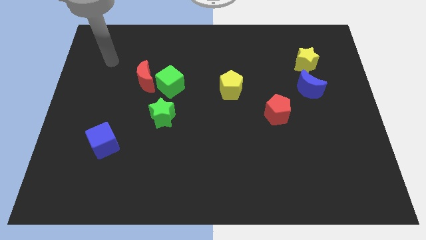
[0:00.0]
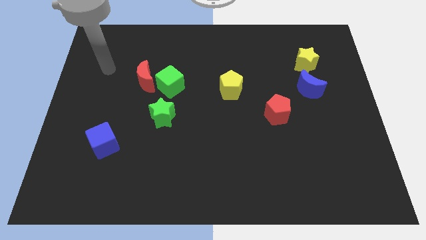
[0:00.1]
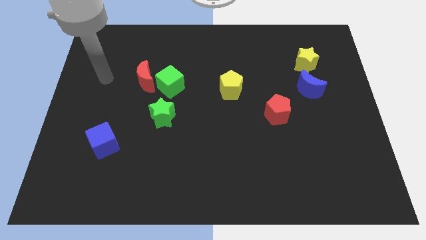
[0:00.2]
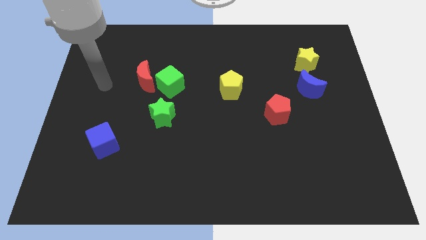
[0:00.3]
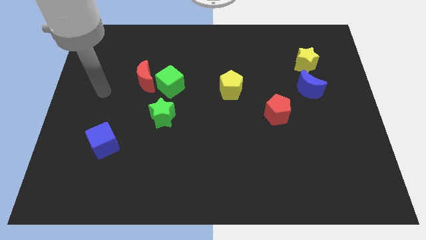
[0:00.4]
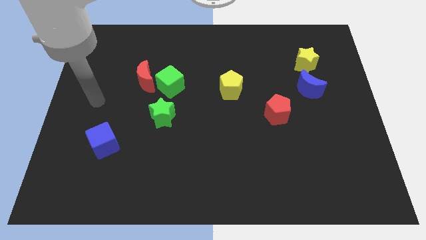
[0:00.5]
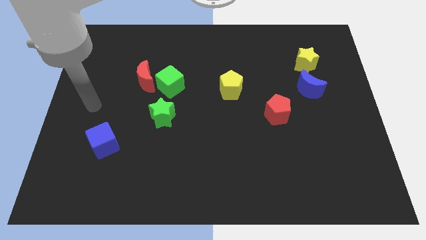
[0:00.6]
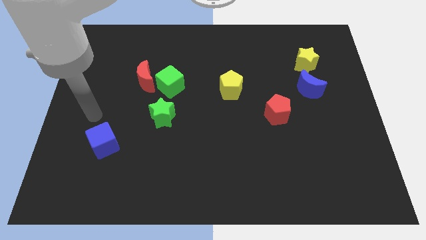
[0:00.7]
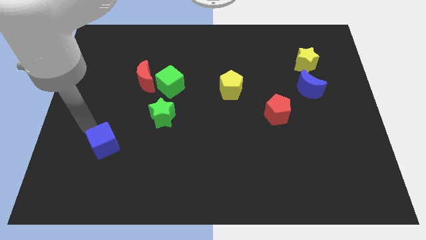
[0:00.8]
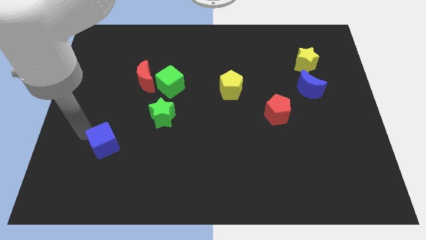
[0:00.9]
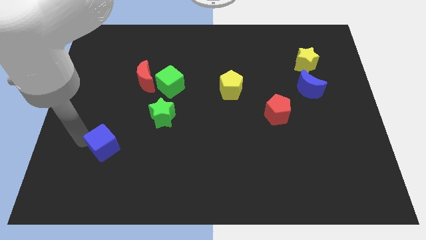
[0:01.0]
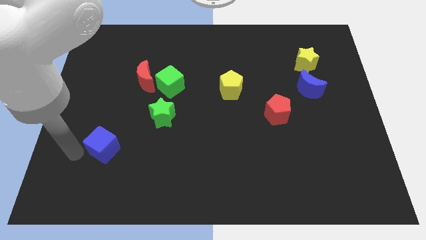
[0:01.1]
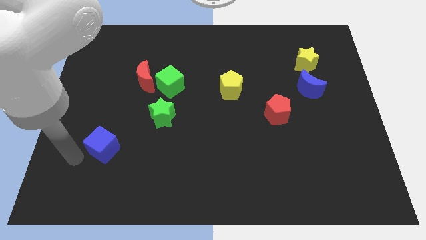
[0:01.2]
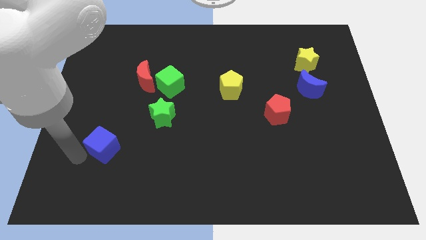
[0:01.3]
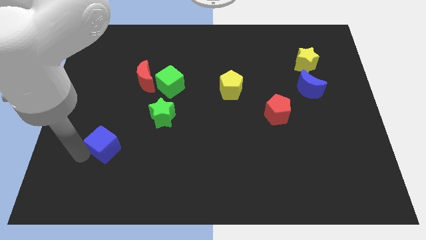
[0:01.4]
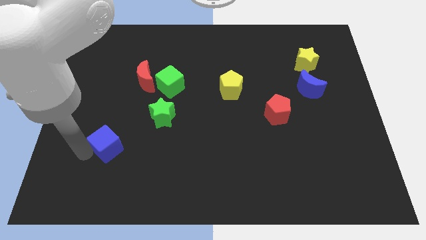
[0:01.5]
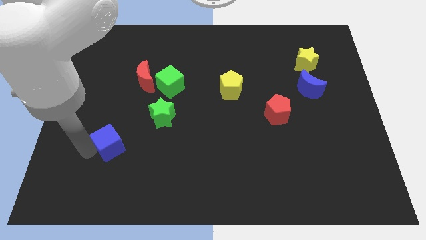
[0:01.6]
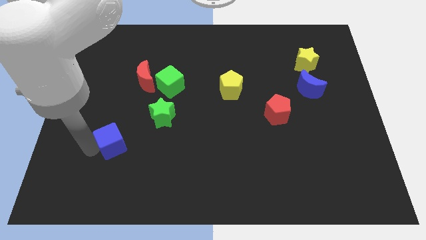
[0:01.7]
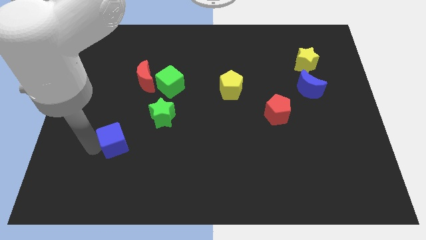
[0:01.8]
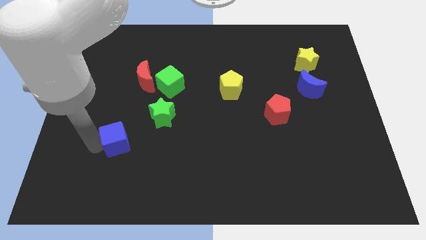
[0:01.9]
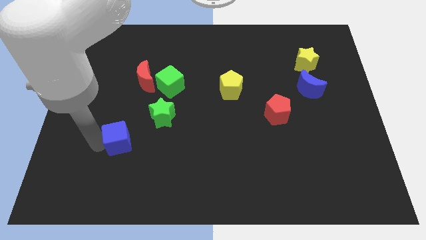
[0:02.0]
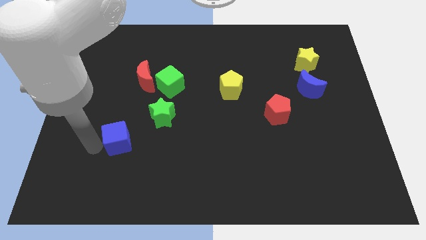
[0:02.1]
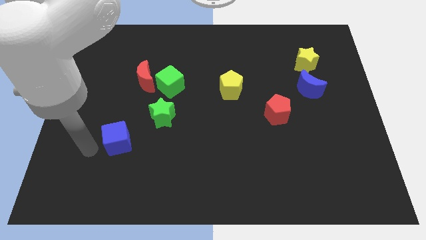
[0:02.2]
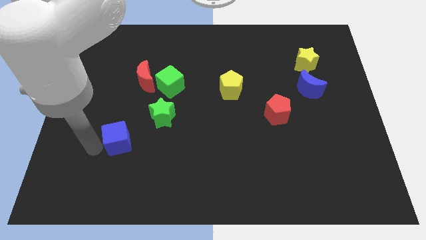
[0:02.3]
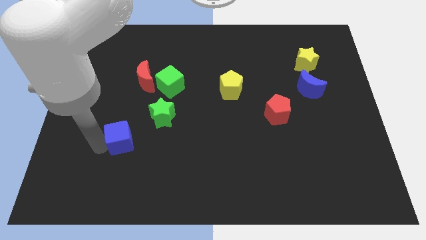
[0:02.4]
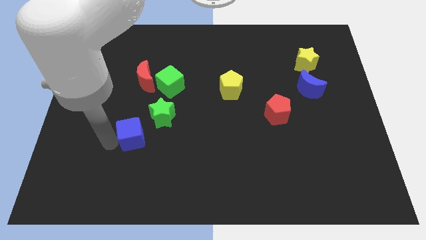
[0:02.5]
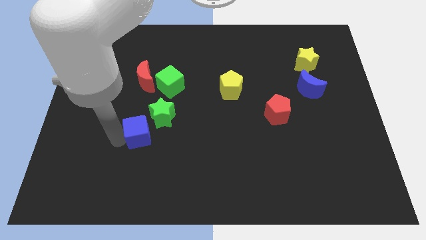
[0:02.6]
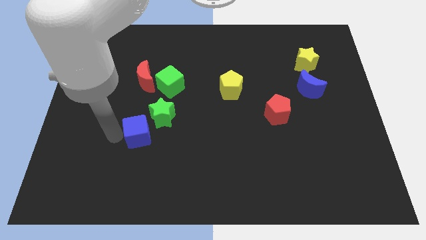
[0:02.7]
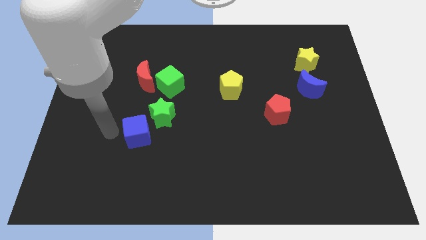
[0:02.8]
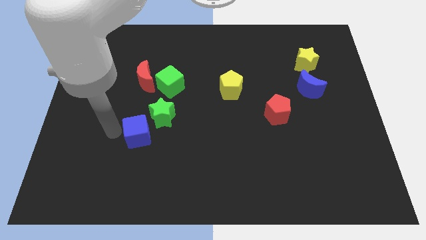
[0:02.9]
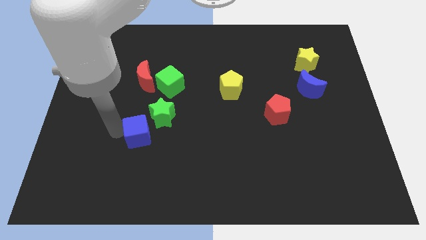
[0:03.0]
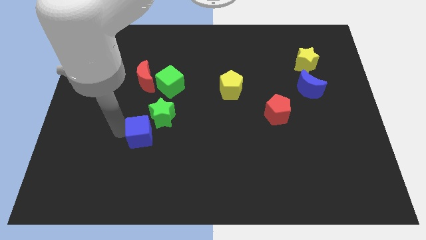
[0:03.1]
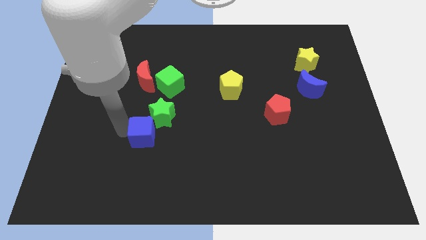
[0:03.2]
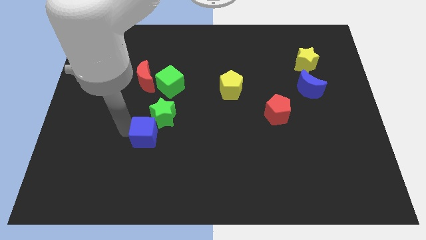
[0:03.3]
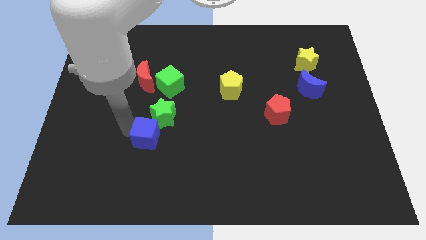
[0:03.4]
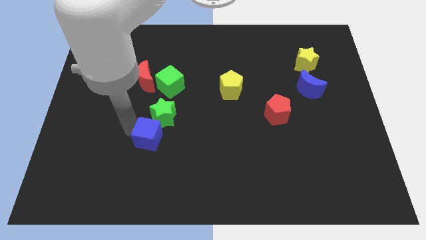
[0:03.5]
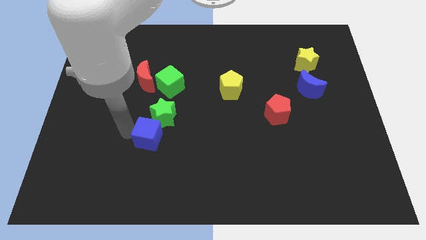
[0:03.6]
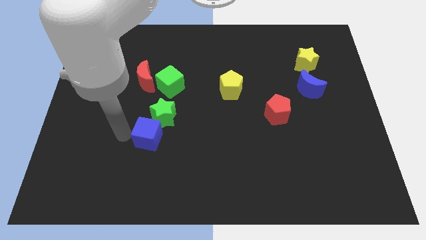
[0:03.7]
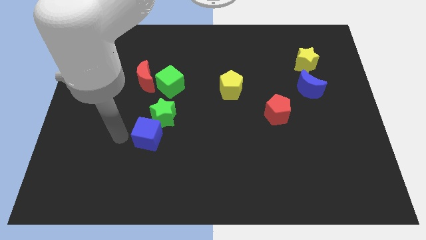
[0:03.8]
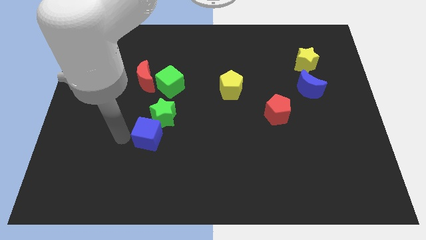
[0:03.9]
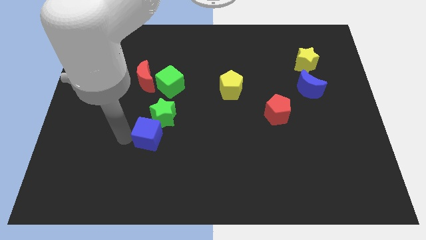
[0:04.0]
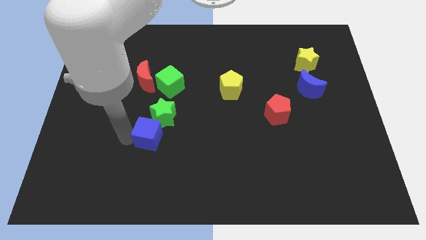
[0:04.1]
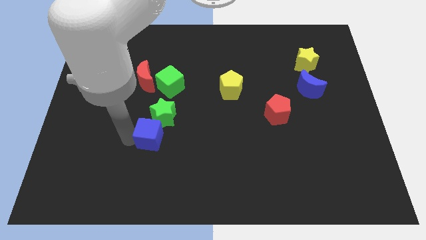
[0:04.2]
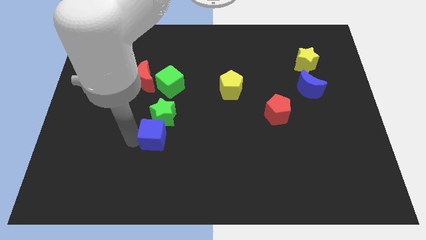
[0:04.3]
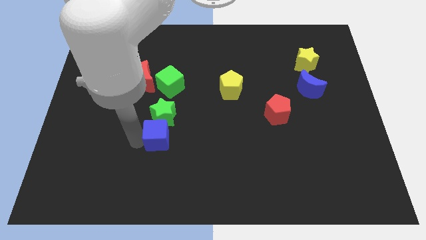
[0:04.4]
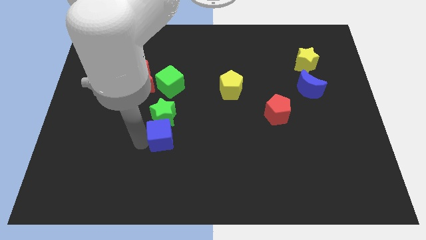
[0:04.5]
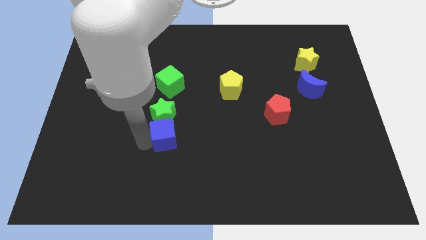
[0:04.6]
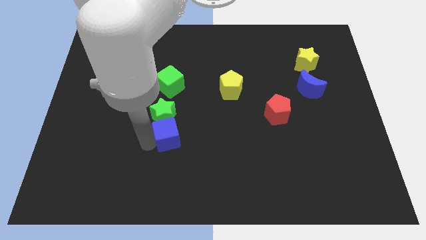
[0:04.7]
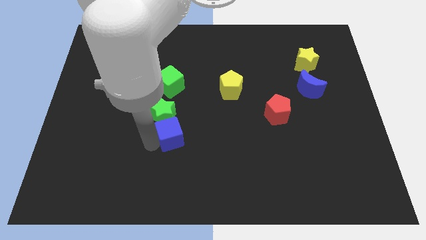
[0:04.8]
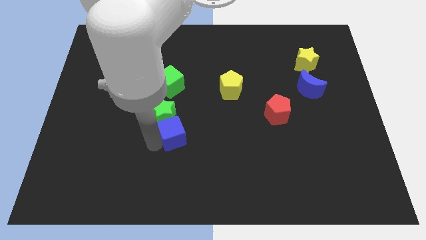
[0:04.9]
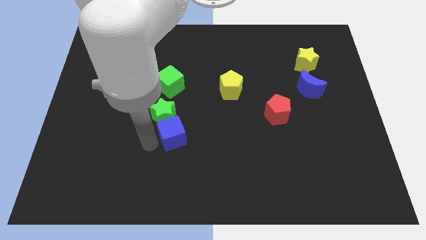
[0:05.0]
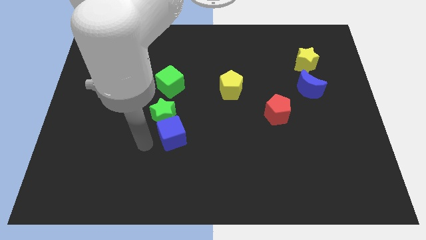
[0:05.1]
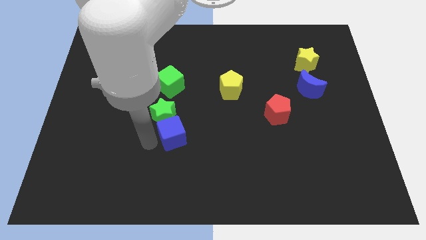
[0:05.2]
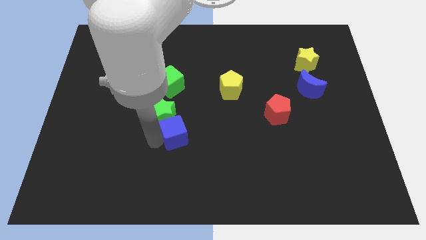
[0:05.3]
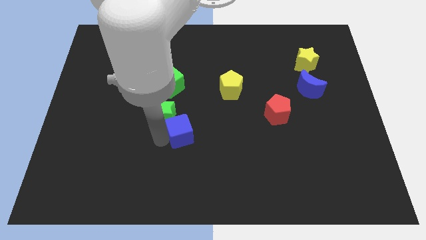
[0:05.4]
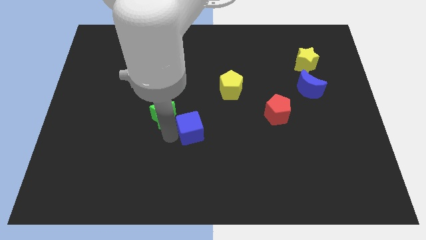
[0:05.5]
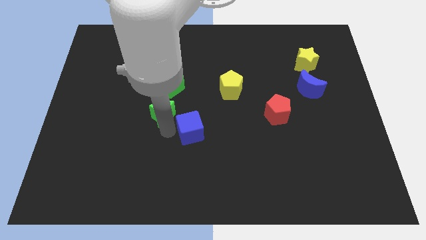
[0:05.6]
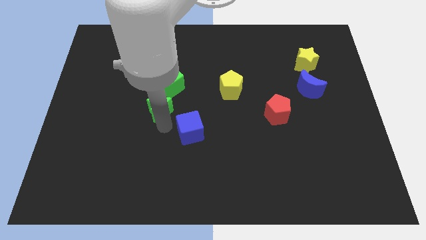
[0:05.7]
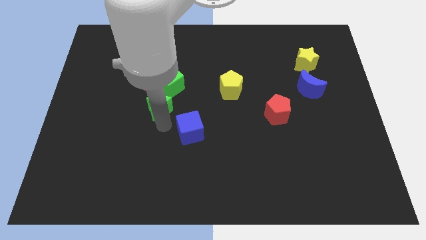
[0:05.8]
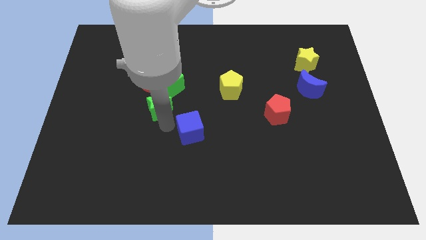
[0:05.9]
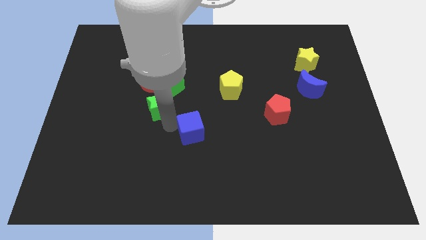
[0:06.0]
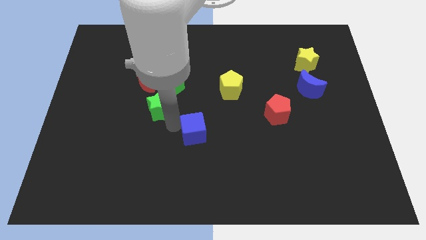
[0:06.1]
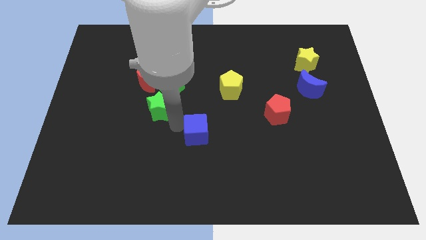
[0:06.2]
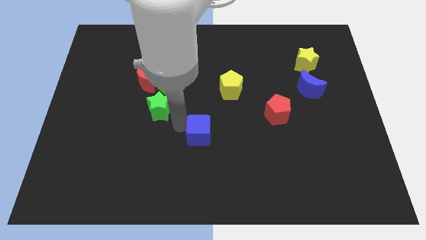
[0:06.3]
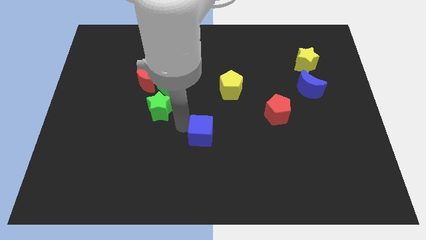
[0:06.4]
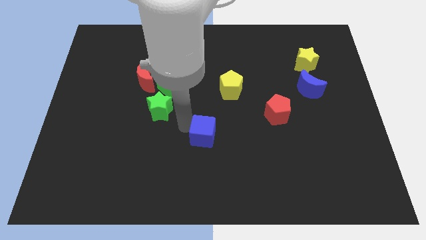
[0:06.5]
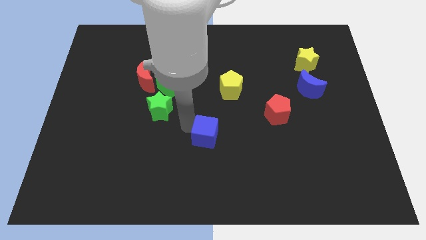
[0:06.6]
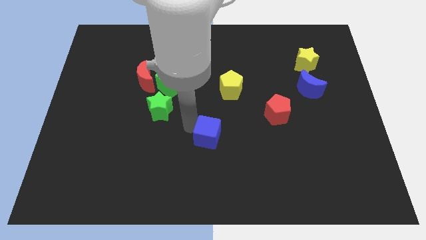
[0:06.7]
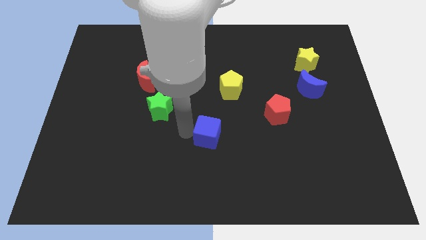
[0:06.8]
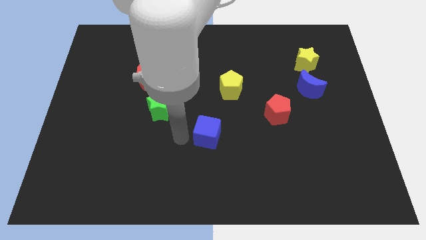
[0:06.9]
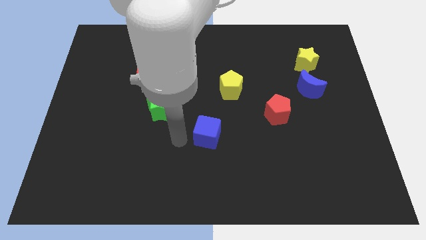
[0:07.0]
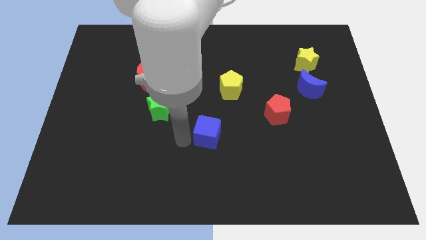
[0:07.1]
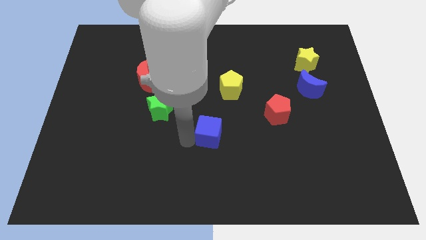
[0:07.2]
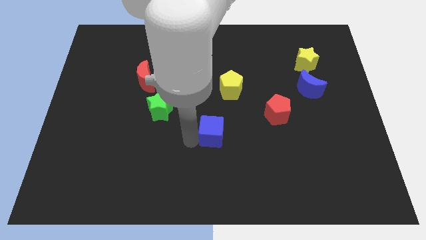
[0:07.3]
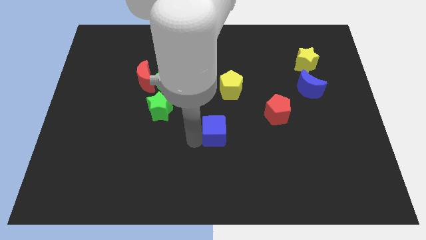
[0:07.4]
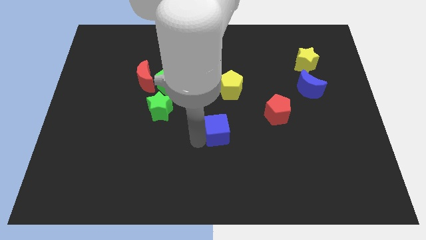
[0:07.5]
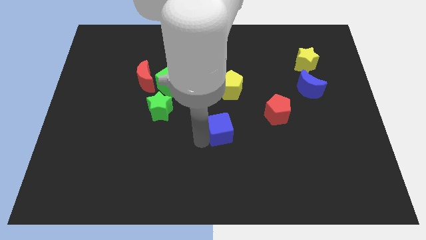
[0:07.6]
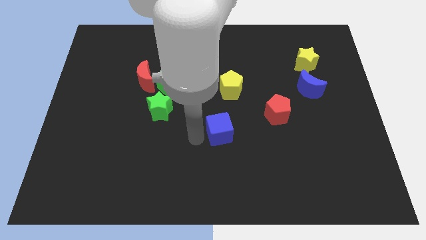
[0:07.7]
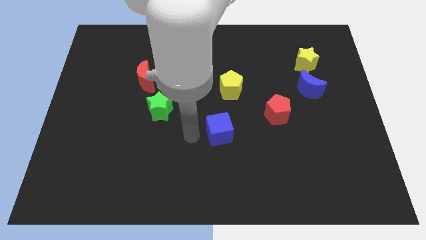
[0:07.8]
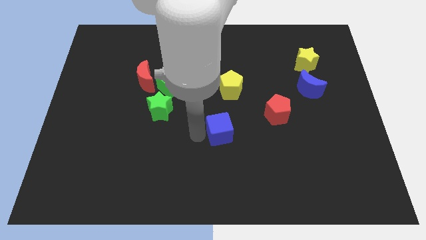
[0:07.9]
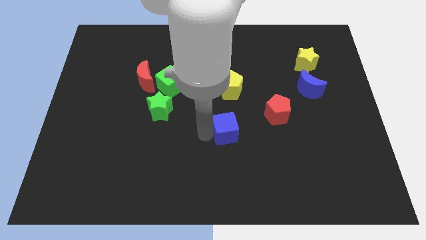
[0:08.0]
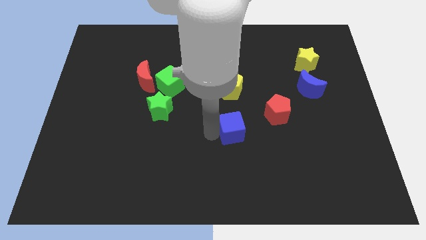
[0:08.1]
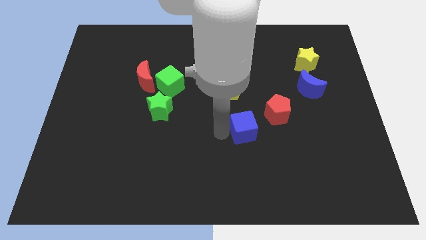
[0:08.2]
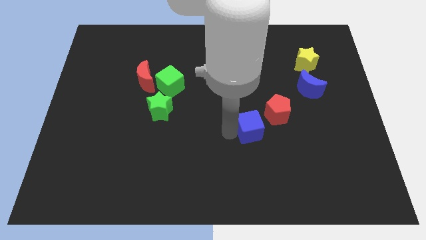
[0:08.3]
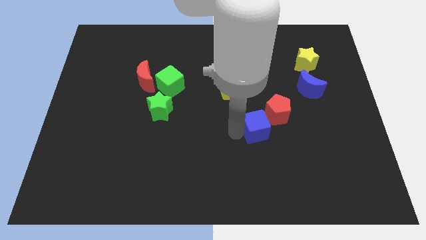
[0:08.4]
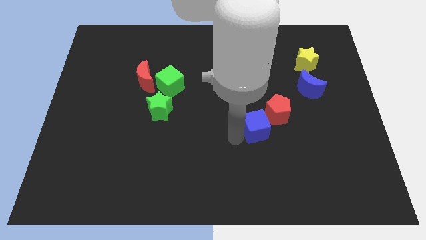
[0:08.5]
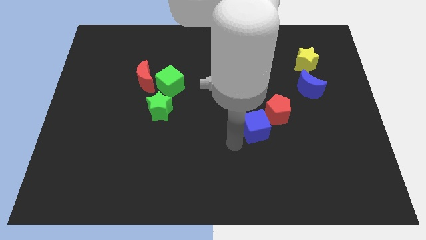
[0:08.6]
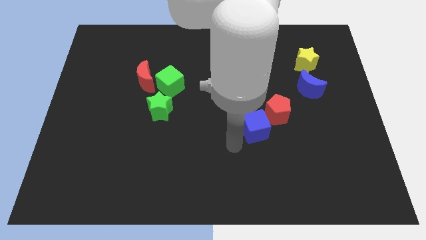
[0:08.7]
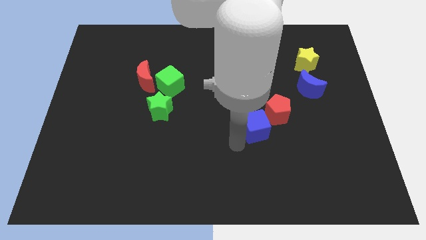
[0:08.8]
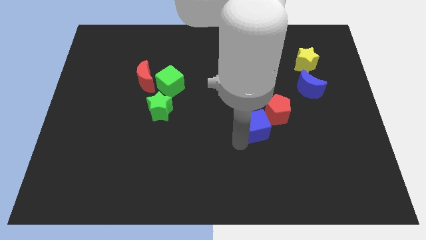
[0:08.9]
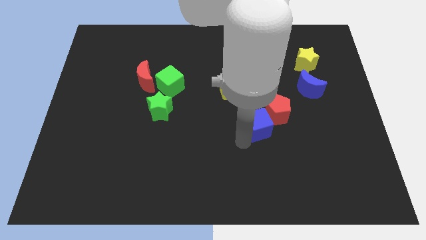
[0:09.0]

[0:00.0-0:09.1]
slide the blue cube towards the red pentagon
